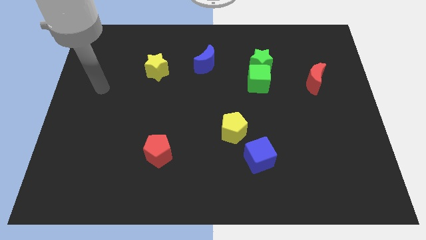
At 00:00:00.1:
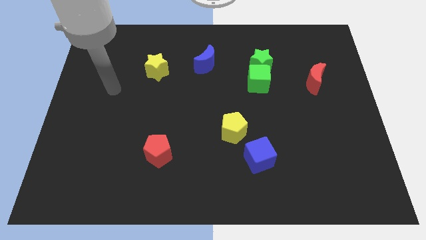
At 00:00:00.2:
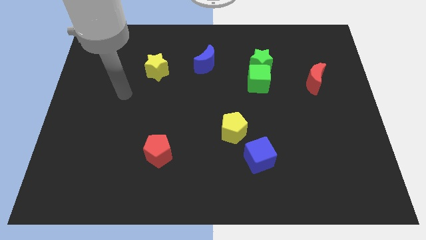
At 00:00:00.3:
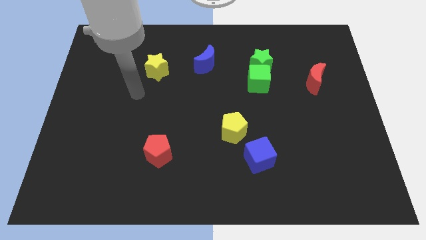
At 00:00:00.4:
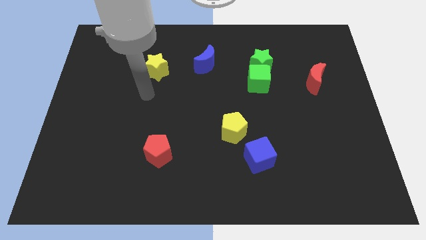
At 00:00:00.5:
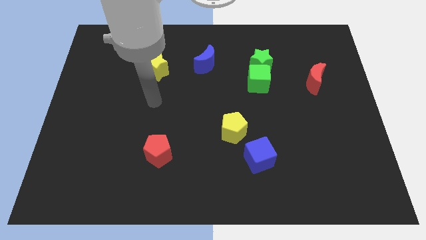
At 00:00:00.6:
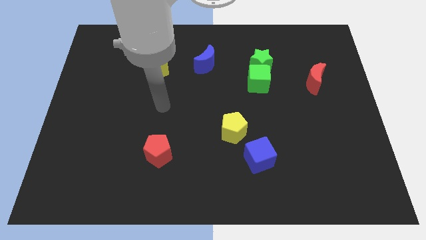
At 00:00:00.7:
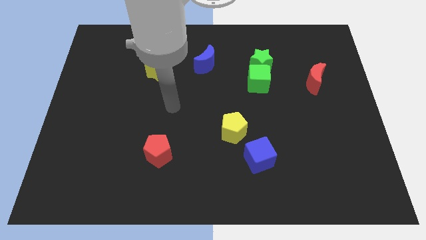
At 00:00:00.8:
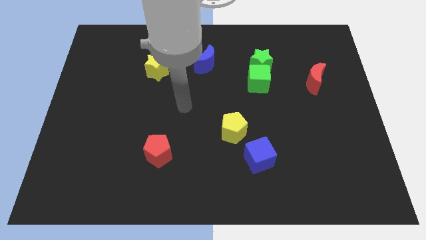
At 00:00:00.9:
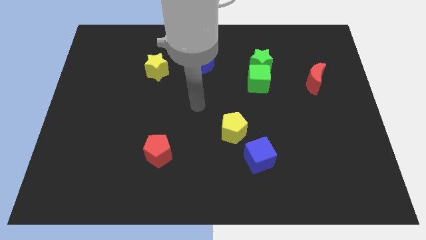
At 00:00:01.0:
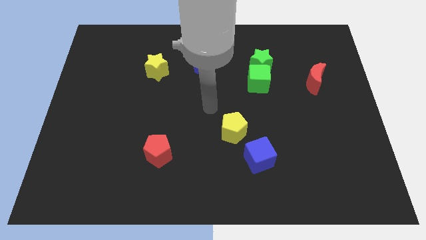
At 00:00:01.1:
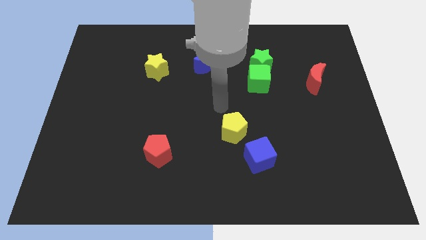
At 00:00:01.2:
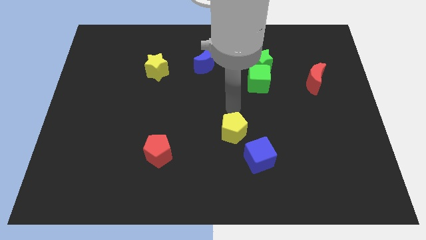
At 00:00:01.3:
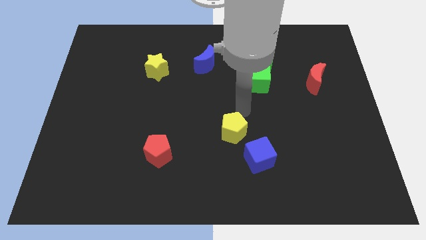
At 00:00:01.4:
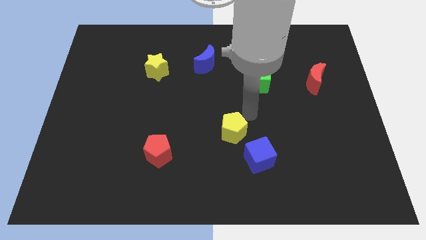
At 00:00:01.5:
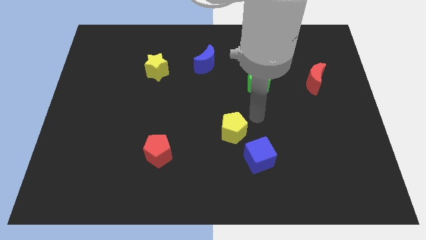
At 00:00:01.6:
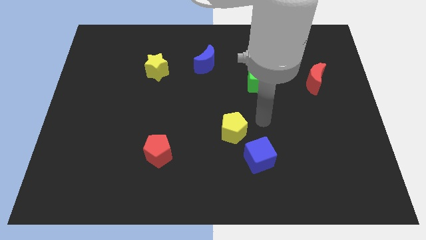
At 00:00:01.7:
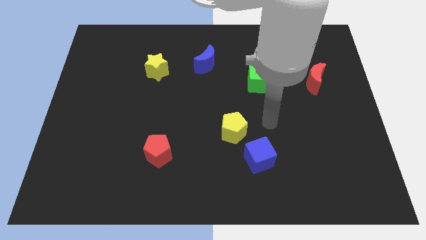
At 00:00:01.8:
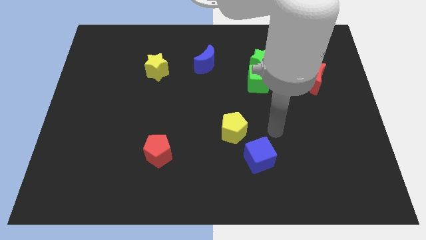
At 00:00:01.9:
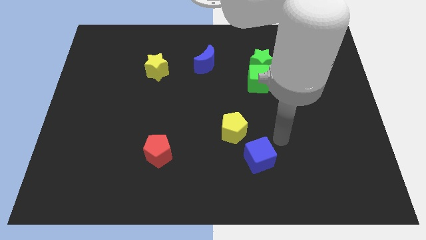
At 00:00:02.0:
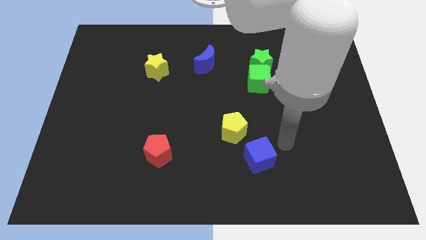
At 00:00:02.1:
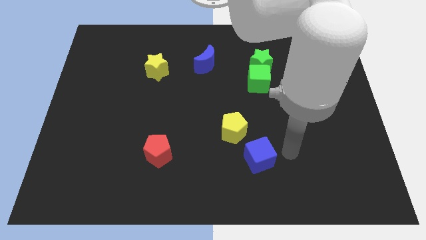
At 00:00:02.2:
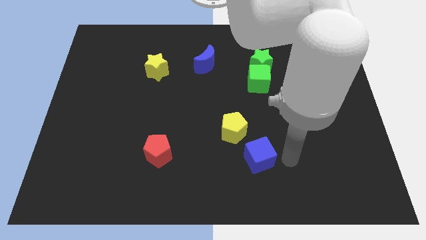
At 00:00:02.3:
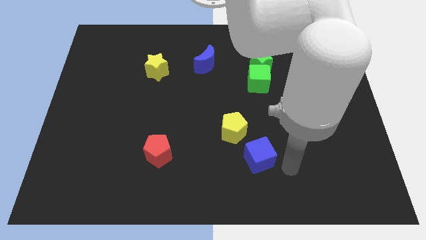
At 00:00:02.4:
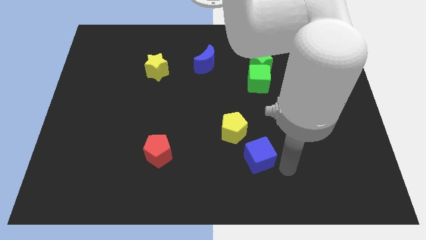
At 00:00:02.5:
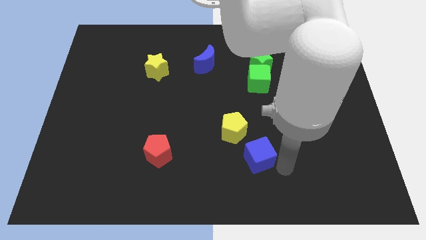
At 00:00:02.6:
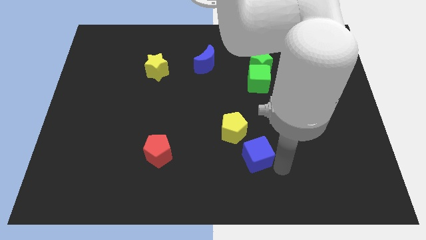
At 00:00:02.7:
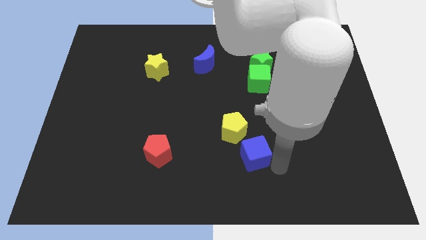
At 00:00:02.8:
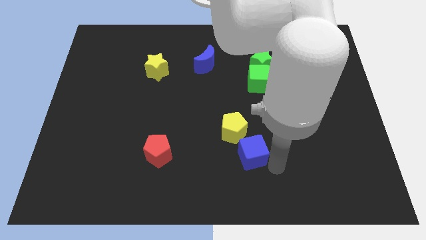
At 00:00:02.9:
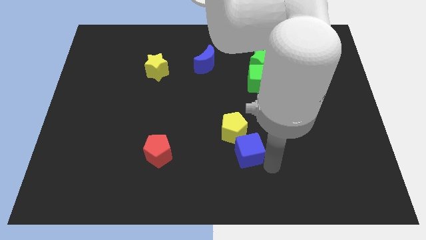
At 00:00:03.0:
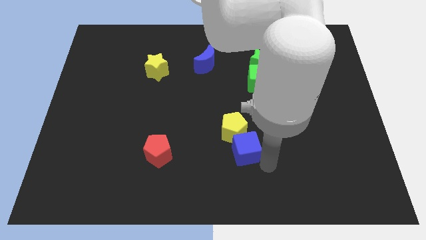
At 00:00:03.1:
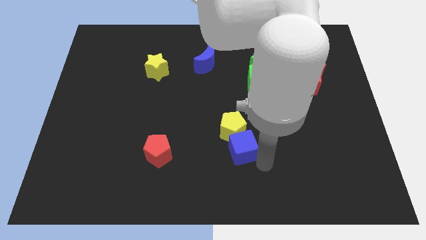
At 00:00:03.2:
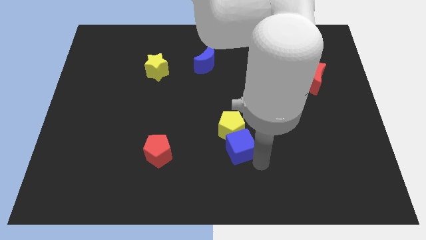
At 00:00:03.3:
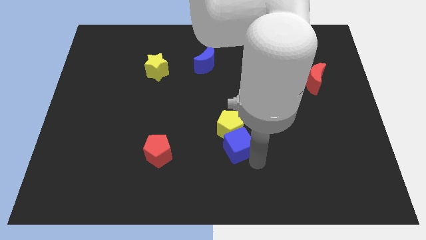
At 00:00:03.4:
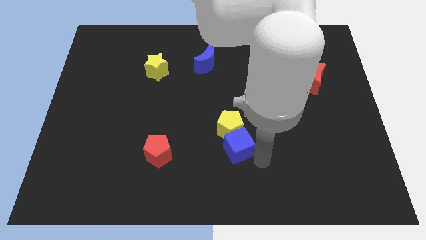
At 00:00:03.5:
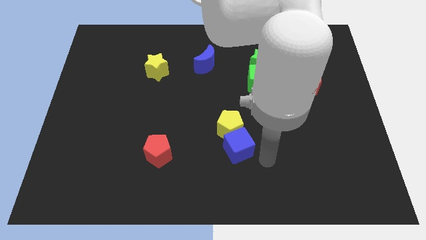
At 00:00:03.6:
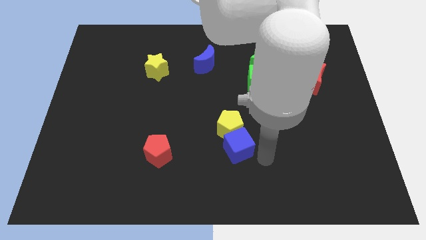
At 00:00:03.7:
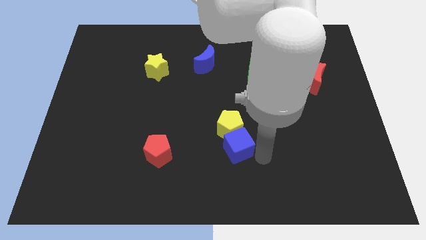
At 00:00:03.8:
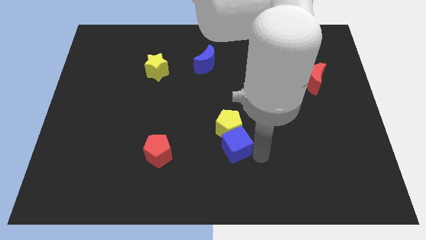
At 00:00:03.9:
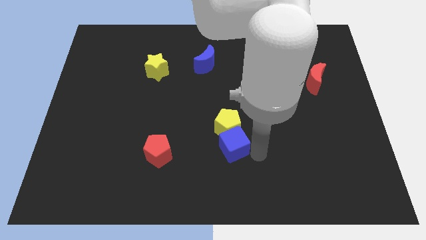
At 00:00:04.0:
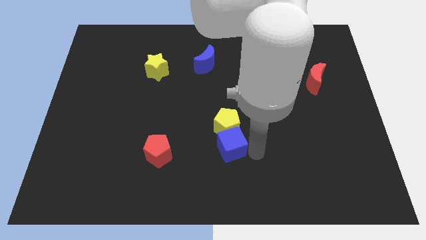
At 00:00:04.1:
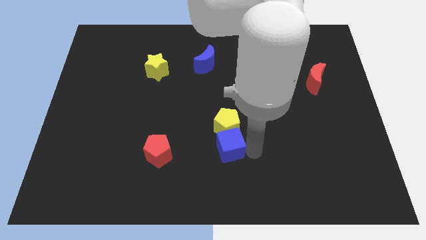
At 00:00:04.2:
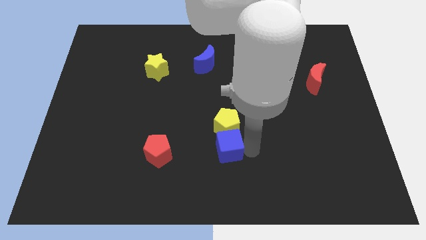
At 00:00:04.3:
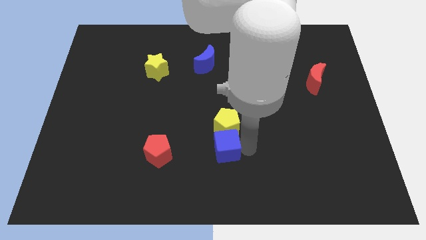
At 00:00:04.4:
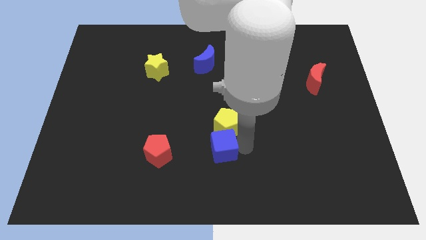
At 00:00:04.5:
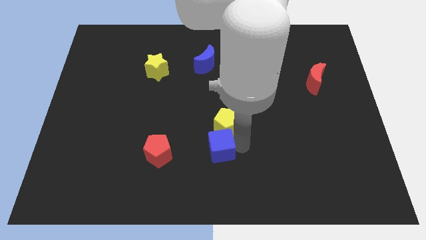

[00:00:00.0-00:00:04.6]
move the blue cube diagonally up and to the left slightly

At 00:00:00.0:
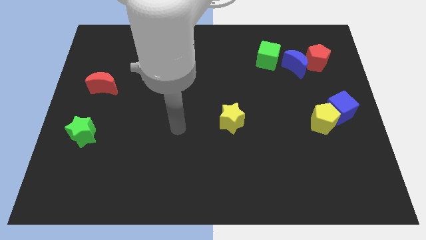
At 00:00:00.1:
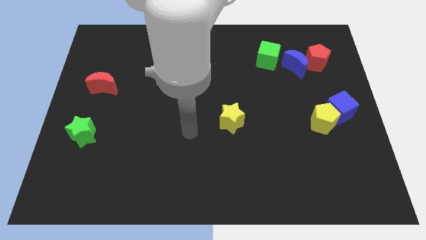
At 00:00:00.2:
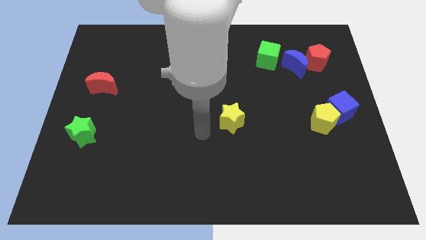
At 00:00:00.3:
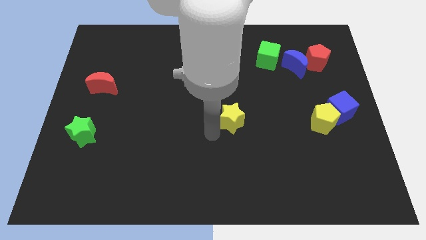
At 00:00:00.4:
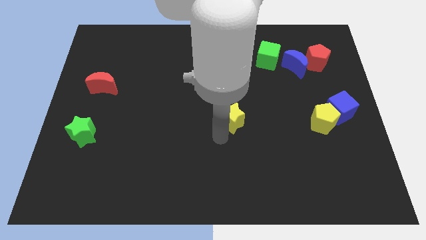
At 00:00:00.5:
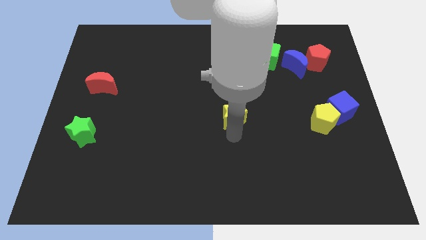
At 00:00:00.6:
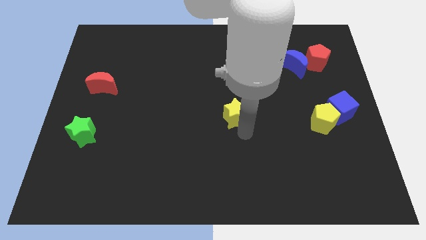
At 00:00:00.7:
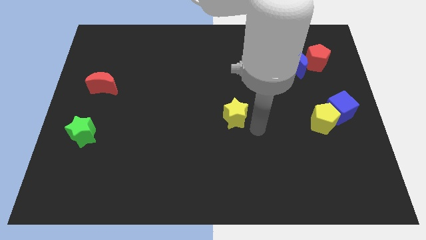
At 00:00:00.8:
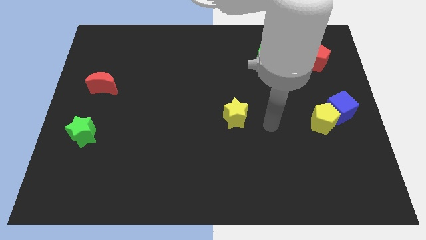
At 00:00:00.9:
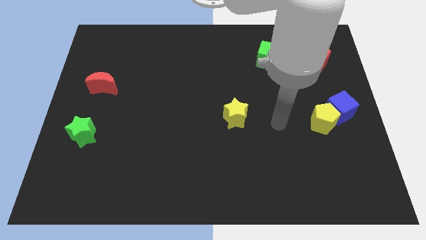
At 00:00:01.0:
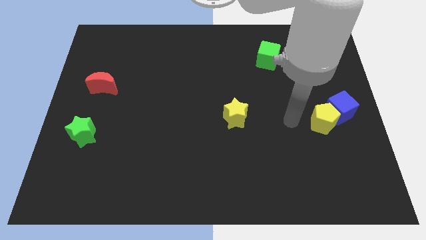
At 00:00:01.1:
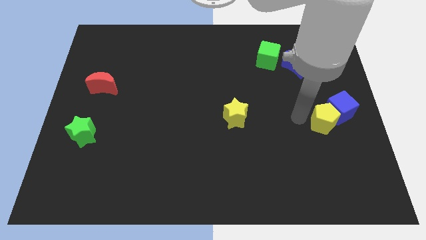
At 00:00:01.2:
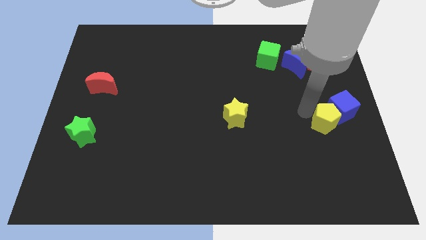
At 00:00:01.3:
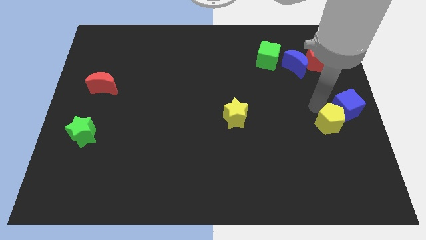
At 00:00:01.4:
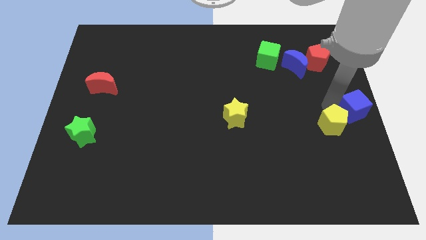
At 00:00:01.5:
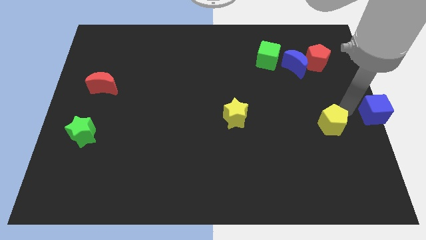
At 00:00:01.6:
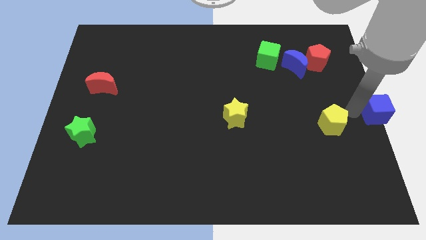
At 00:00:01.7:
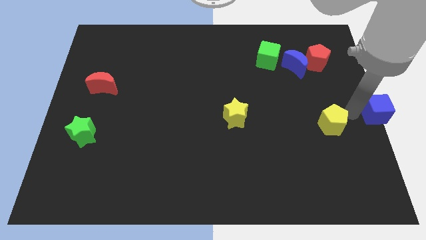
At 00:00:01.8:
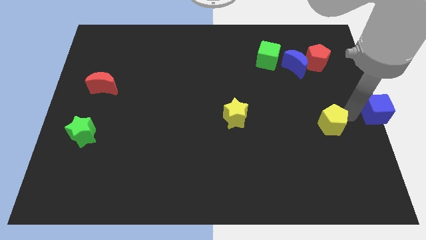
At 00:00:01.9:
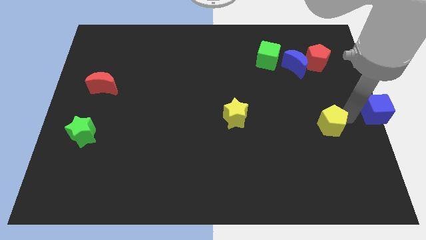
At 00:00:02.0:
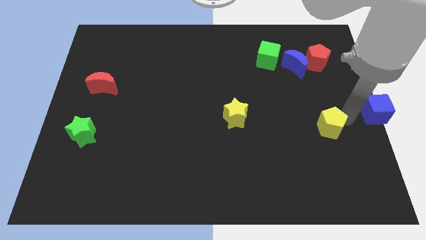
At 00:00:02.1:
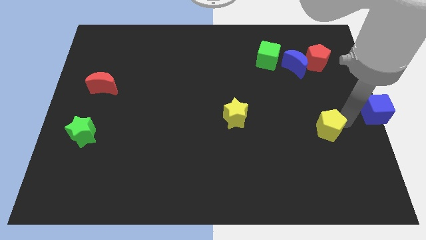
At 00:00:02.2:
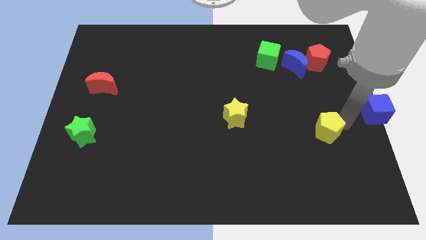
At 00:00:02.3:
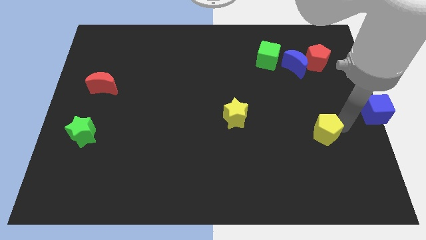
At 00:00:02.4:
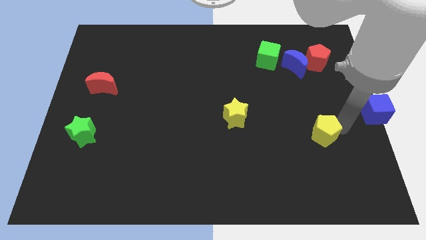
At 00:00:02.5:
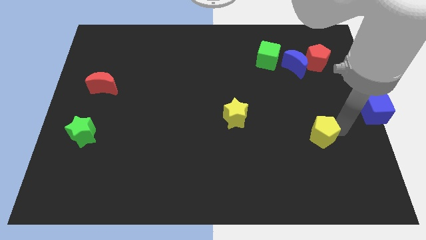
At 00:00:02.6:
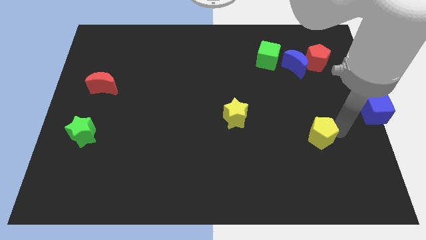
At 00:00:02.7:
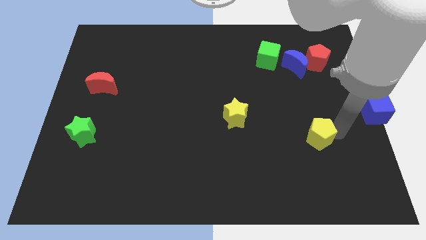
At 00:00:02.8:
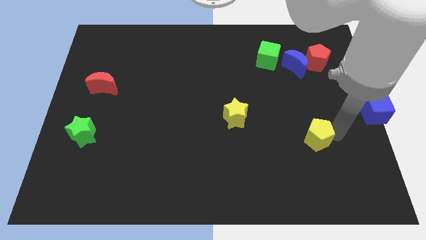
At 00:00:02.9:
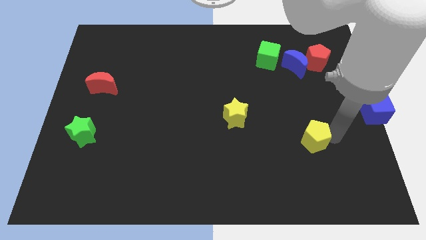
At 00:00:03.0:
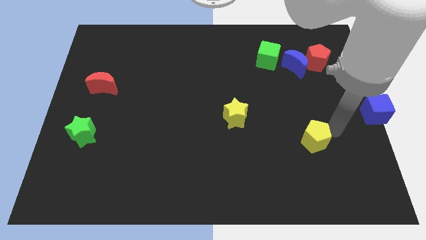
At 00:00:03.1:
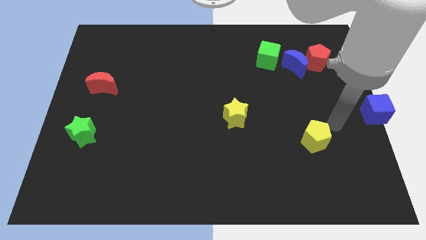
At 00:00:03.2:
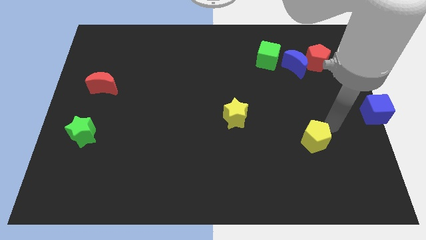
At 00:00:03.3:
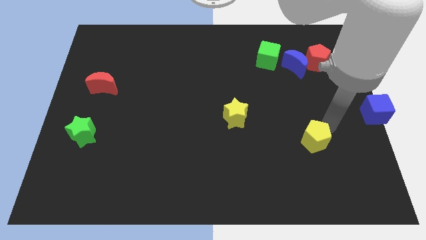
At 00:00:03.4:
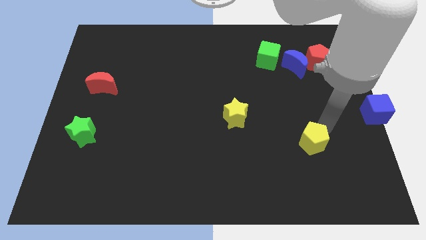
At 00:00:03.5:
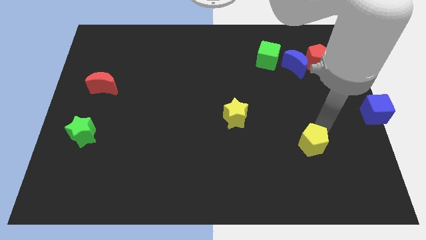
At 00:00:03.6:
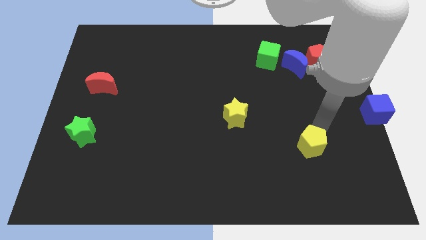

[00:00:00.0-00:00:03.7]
slightly slide the yellow pentagon down and left diagonally
